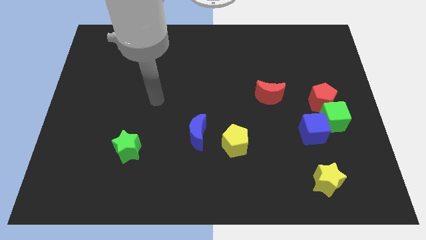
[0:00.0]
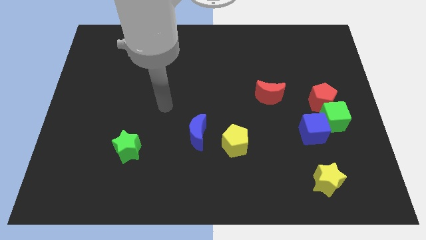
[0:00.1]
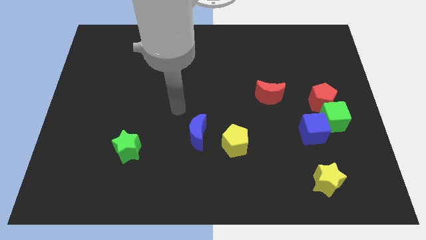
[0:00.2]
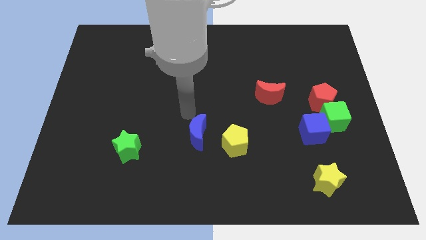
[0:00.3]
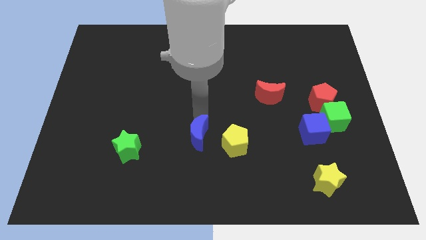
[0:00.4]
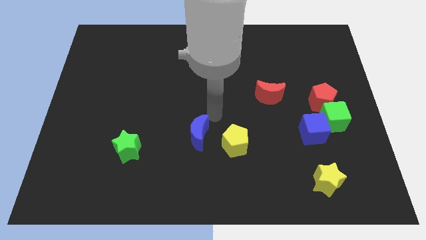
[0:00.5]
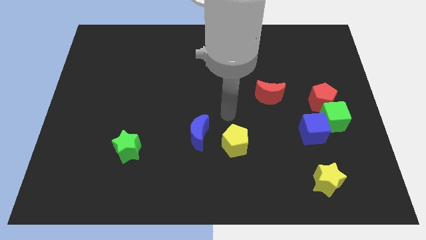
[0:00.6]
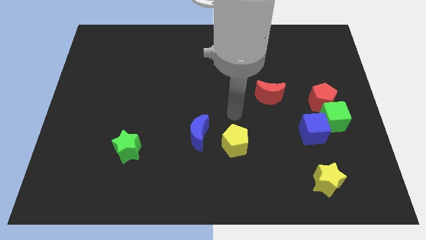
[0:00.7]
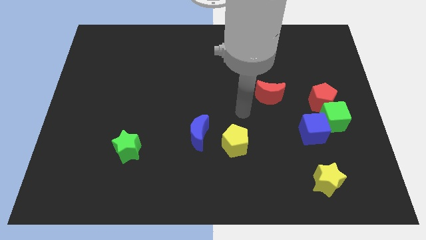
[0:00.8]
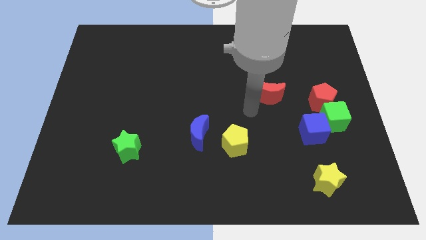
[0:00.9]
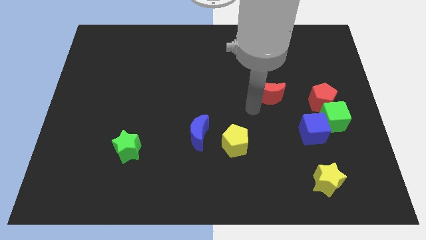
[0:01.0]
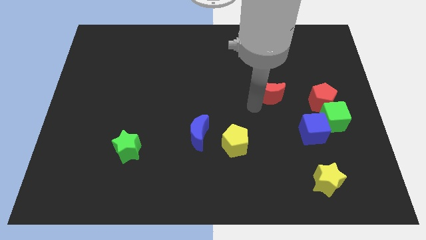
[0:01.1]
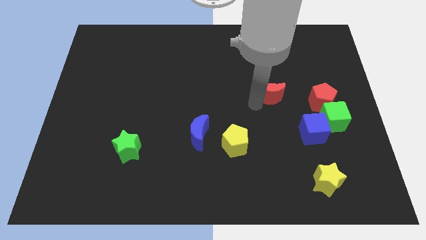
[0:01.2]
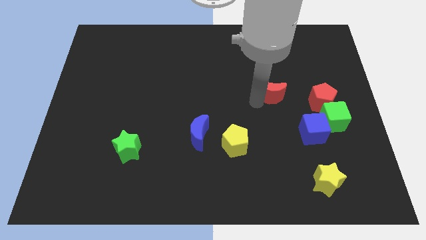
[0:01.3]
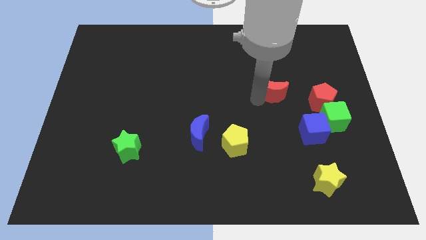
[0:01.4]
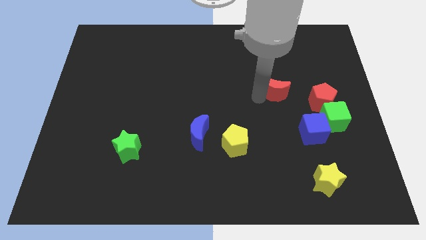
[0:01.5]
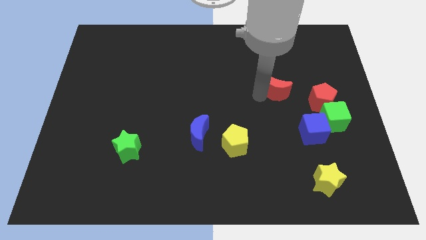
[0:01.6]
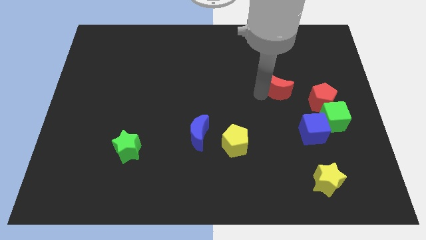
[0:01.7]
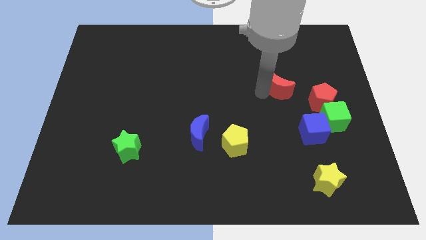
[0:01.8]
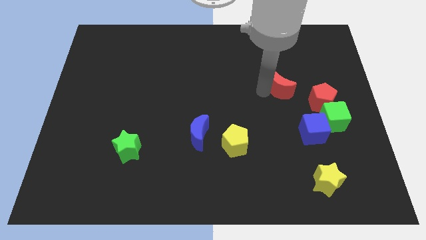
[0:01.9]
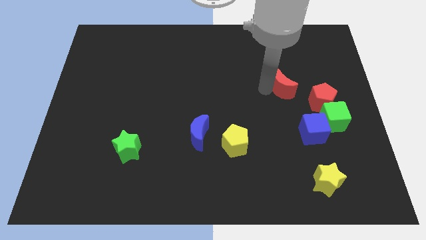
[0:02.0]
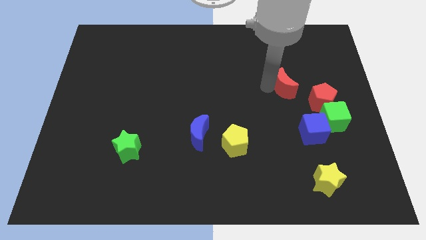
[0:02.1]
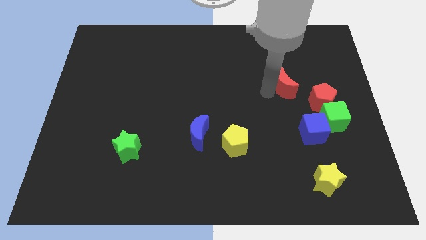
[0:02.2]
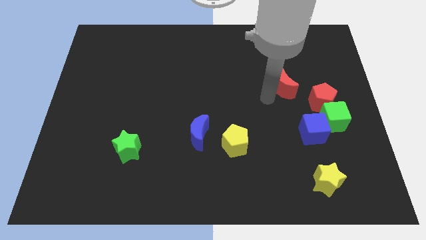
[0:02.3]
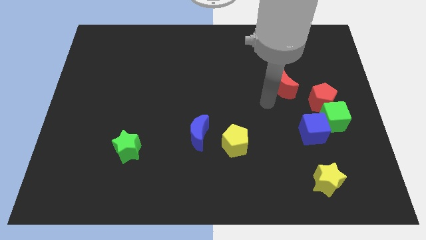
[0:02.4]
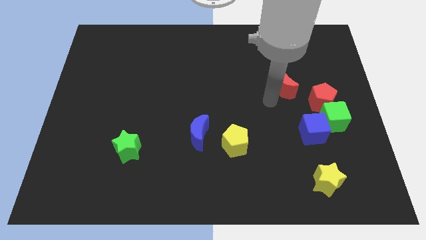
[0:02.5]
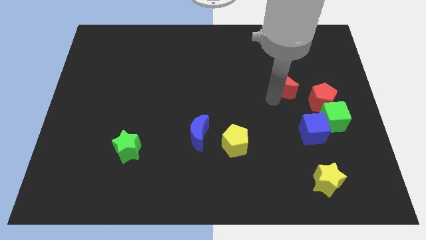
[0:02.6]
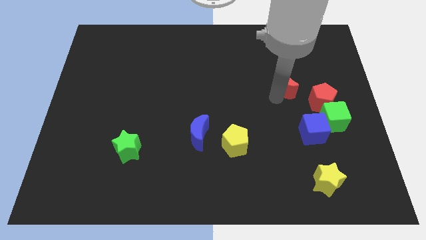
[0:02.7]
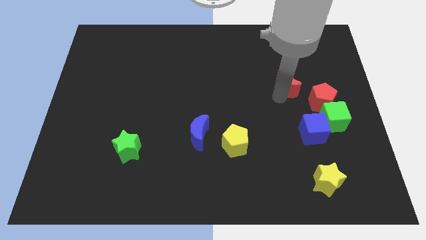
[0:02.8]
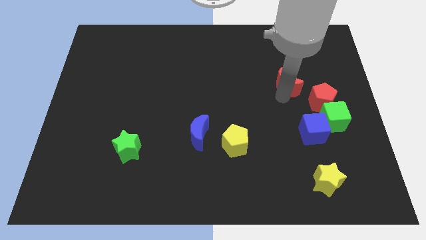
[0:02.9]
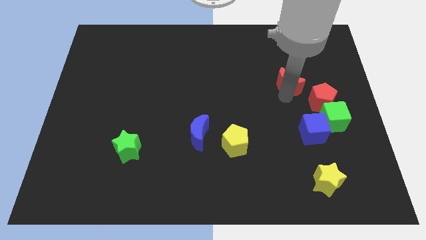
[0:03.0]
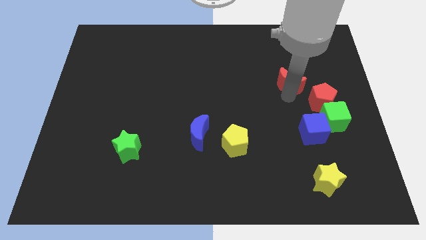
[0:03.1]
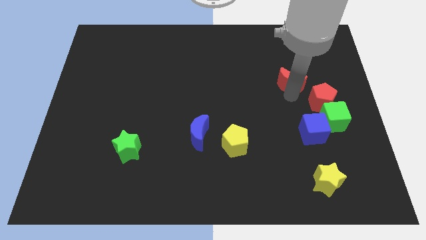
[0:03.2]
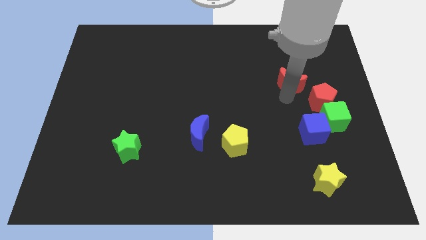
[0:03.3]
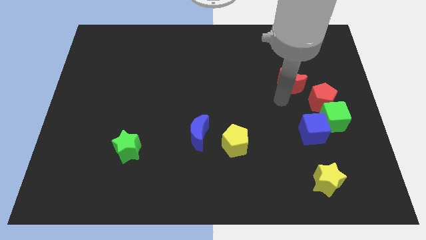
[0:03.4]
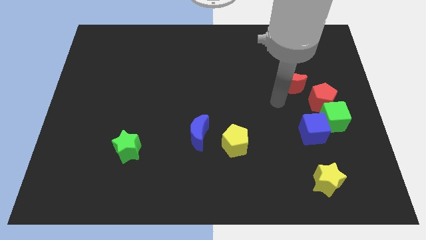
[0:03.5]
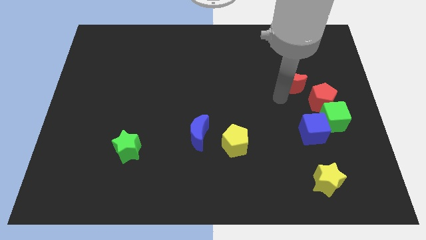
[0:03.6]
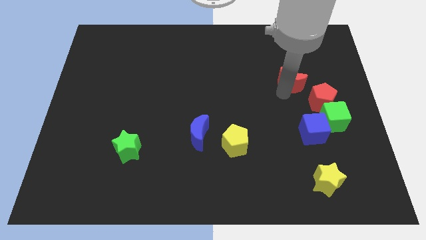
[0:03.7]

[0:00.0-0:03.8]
move the red moon somewhat up and right

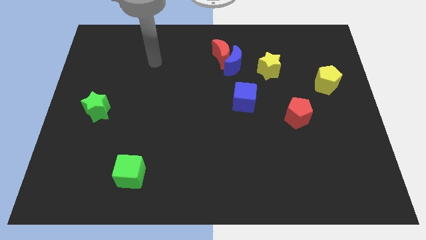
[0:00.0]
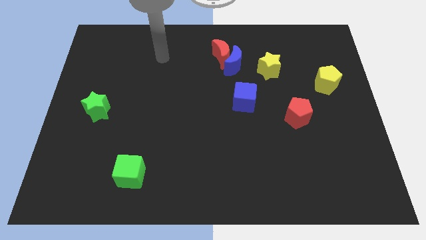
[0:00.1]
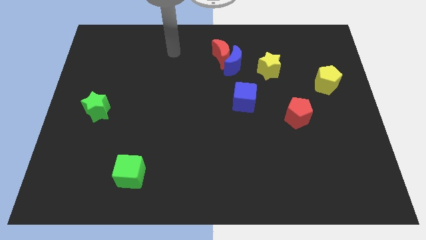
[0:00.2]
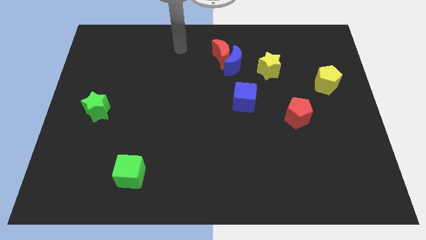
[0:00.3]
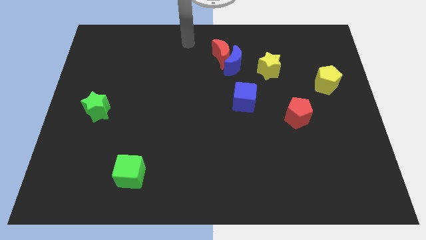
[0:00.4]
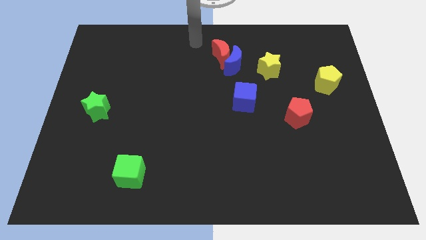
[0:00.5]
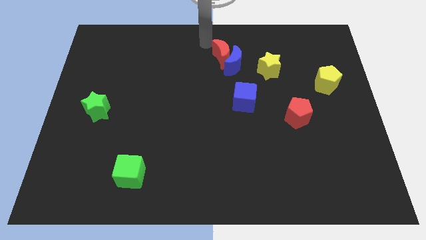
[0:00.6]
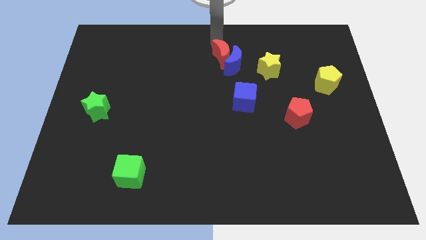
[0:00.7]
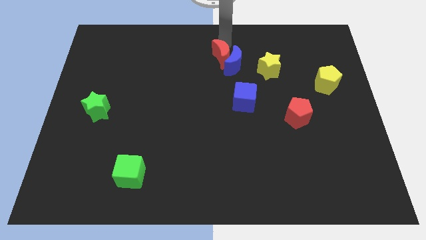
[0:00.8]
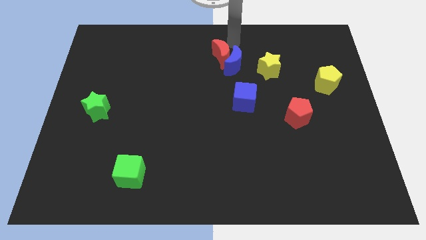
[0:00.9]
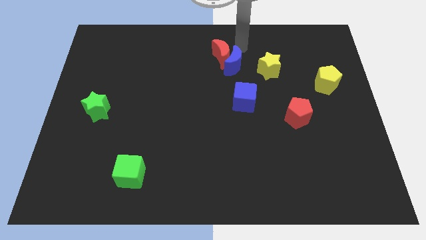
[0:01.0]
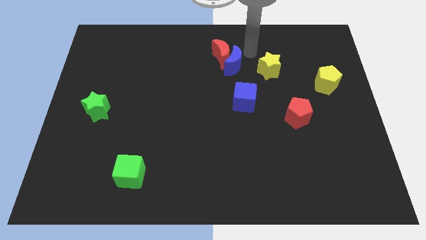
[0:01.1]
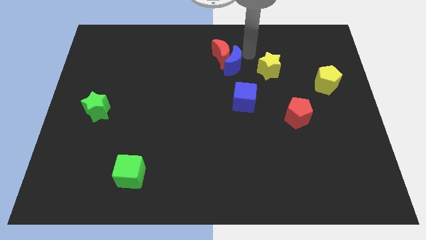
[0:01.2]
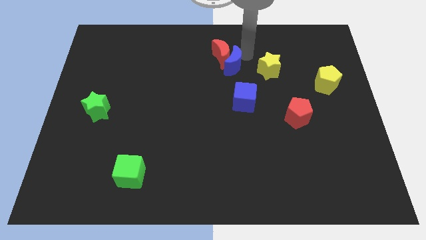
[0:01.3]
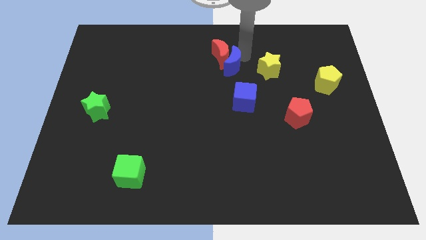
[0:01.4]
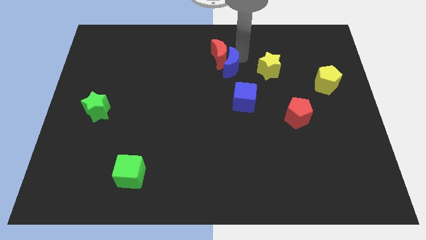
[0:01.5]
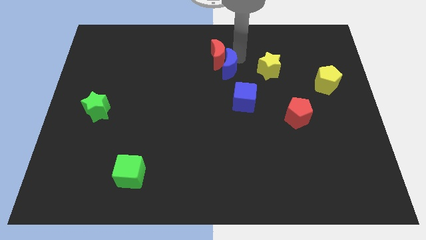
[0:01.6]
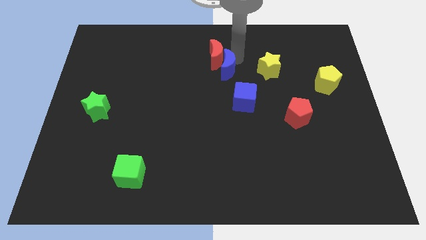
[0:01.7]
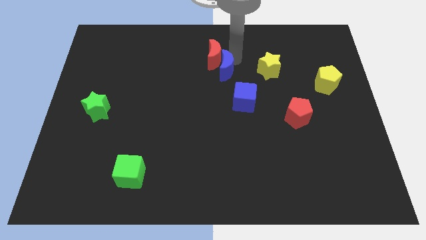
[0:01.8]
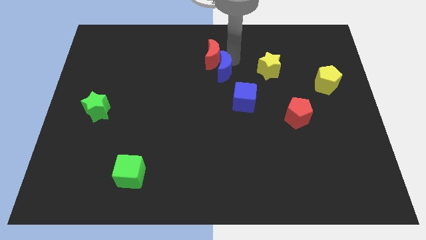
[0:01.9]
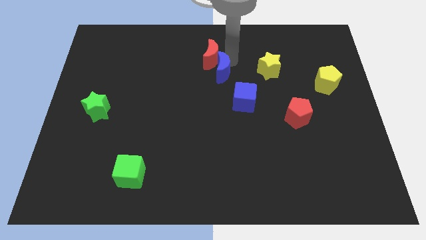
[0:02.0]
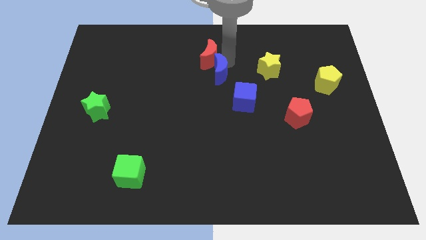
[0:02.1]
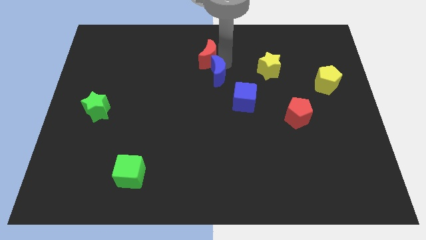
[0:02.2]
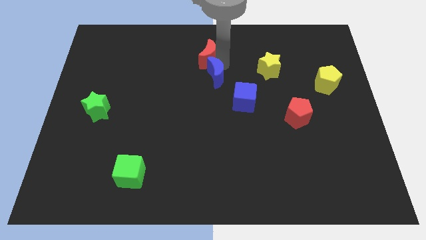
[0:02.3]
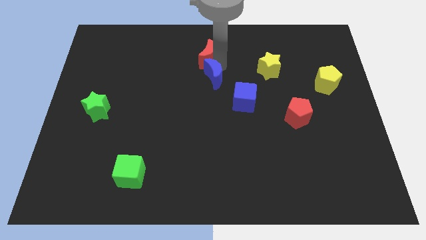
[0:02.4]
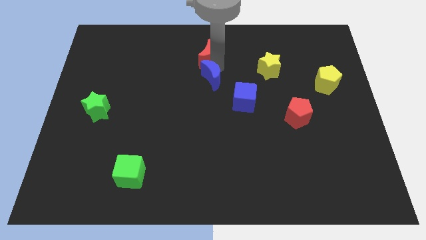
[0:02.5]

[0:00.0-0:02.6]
move the blue moon downwards and to the left slightly

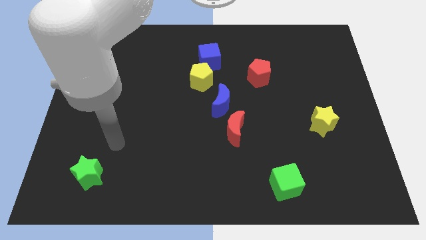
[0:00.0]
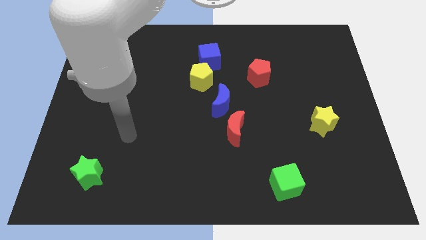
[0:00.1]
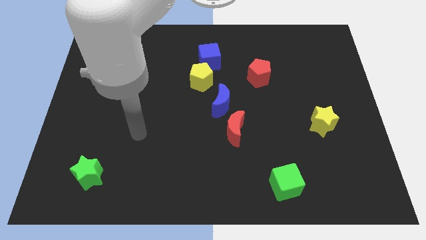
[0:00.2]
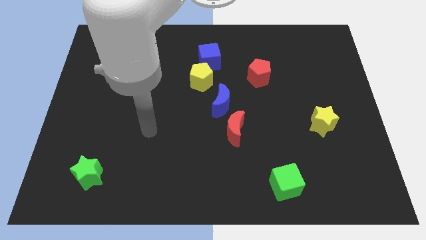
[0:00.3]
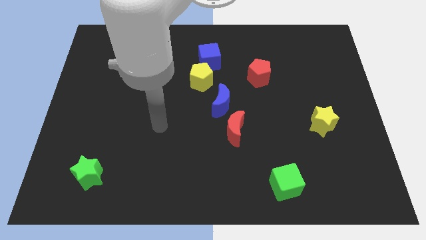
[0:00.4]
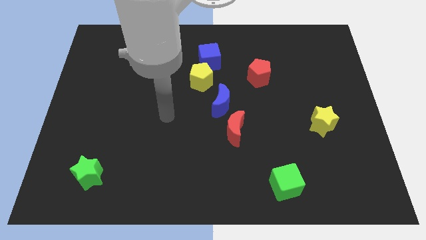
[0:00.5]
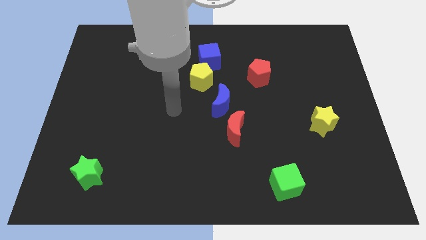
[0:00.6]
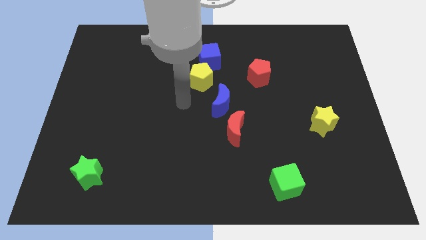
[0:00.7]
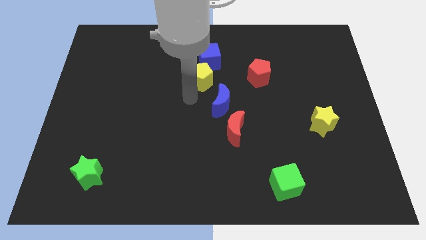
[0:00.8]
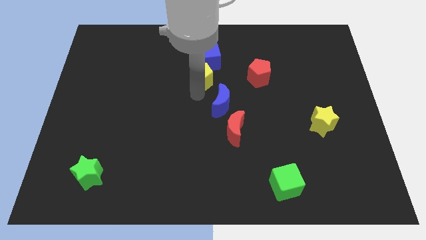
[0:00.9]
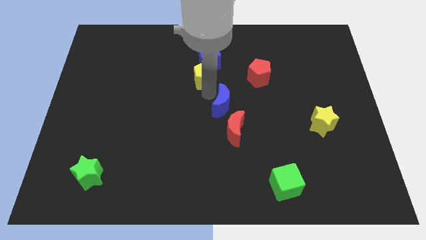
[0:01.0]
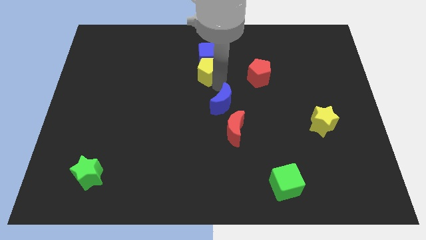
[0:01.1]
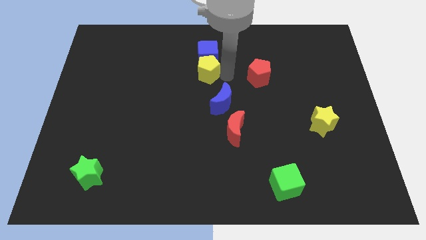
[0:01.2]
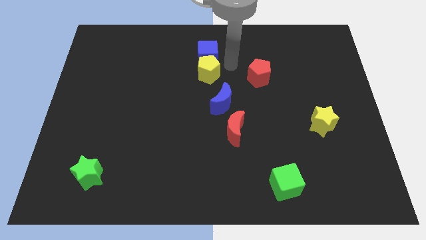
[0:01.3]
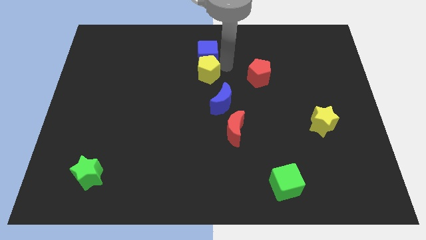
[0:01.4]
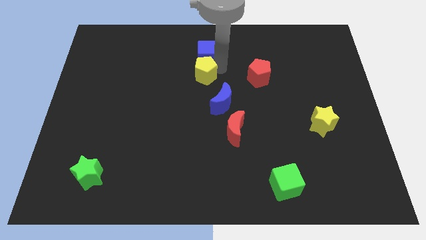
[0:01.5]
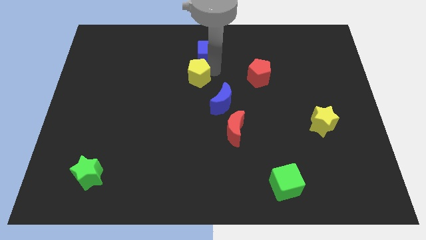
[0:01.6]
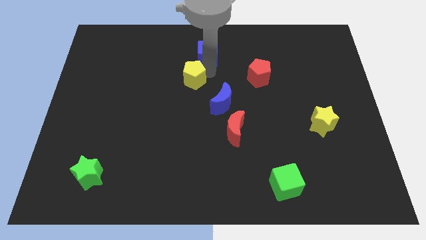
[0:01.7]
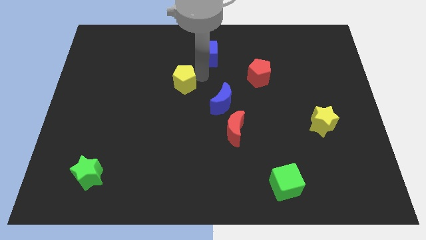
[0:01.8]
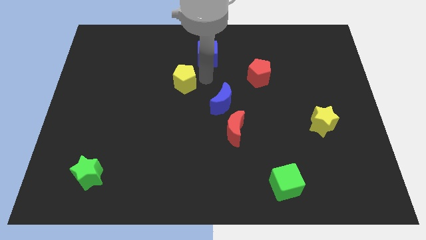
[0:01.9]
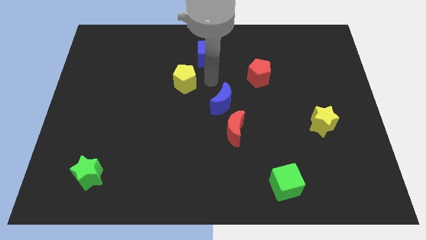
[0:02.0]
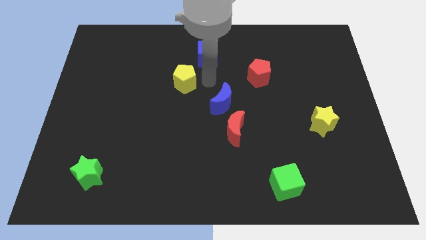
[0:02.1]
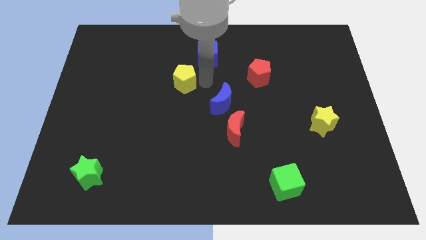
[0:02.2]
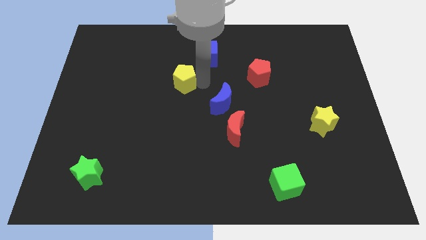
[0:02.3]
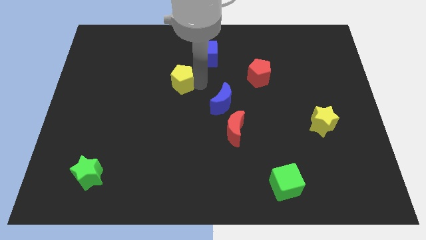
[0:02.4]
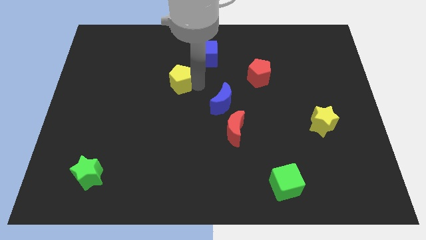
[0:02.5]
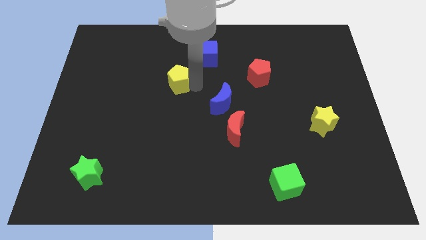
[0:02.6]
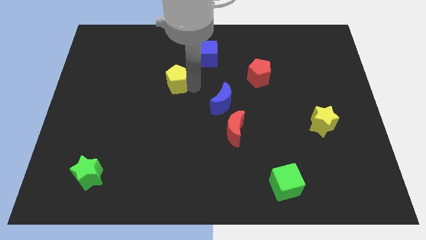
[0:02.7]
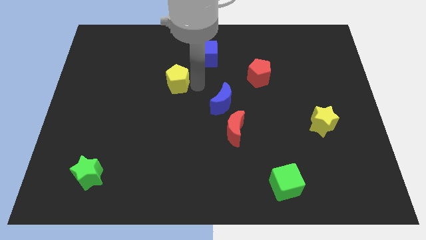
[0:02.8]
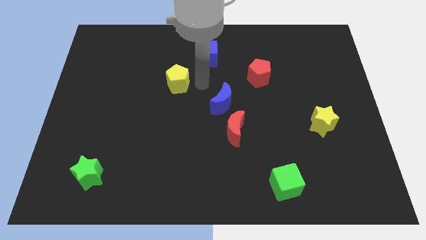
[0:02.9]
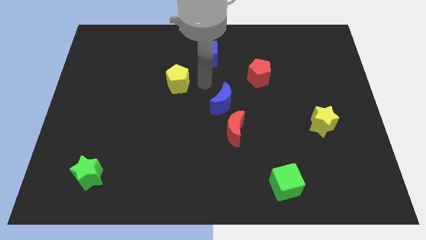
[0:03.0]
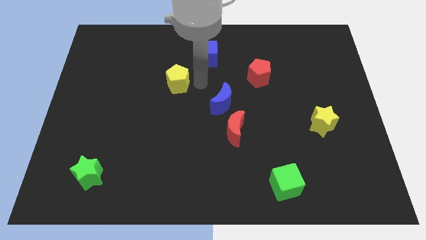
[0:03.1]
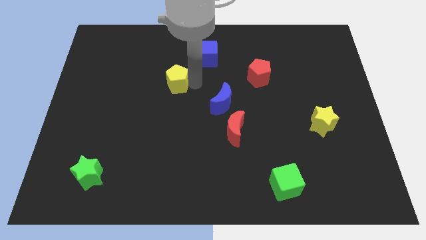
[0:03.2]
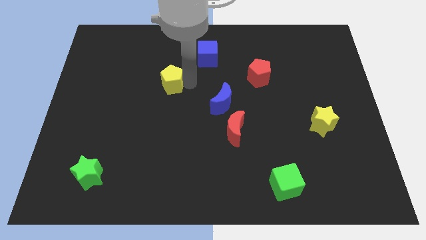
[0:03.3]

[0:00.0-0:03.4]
slightly slide the yellow pentagon to the left
